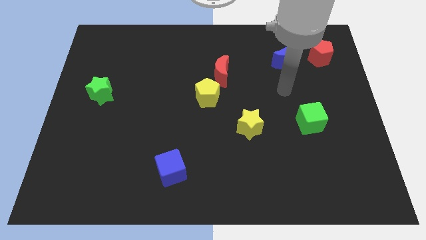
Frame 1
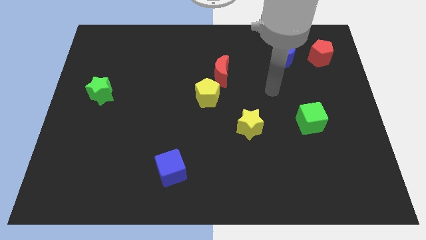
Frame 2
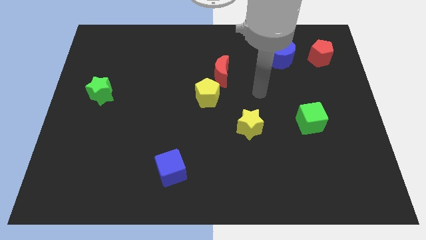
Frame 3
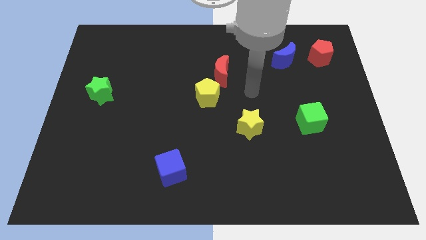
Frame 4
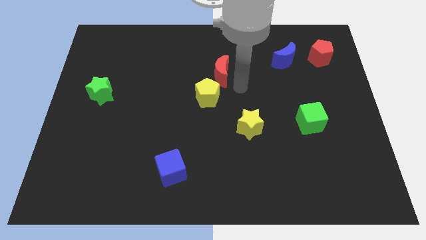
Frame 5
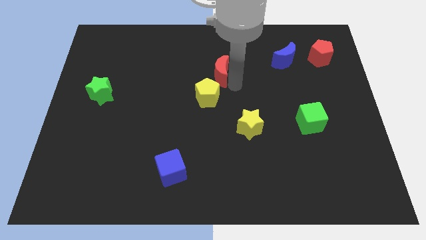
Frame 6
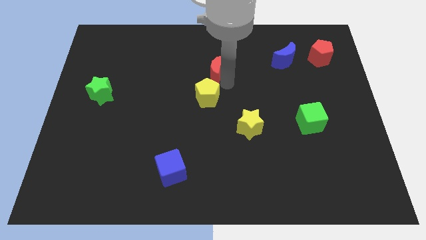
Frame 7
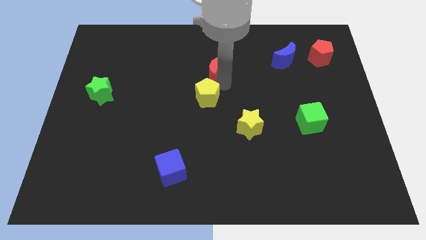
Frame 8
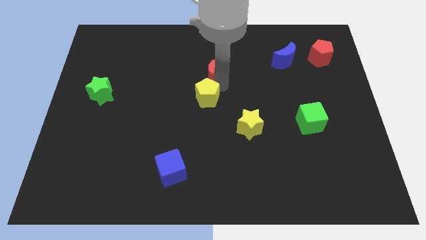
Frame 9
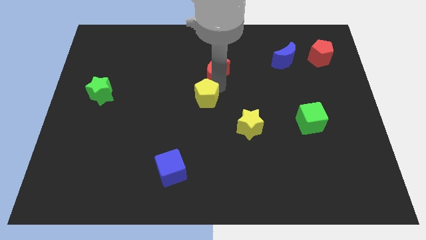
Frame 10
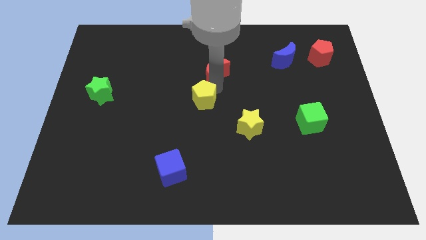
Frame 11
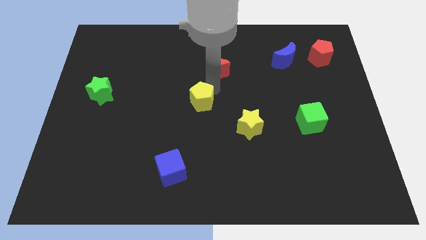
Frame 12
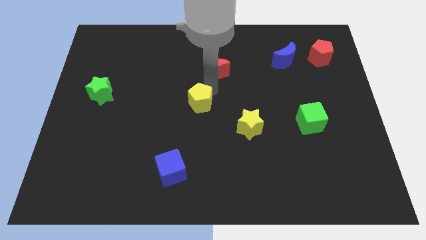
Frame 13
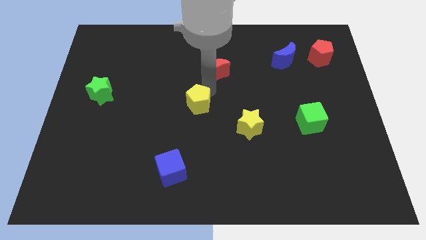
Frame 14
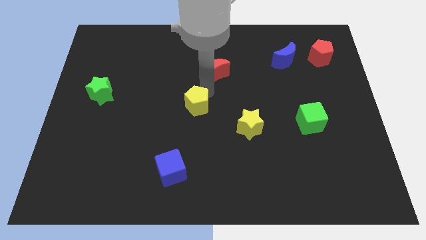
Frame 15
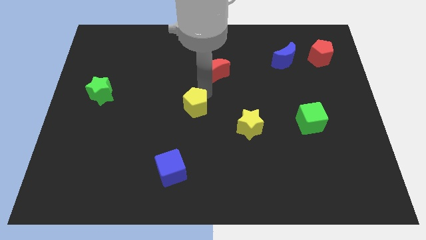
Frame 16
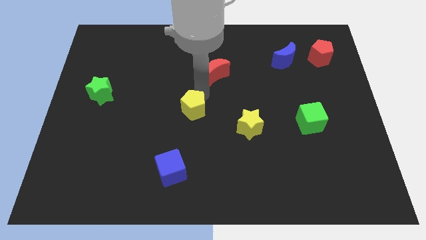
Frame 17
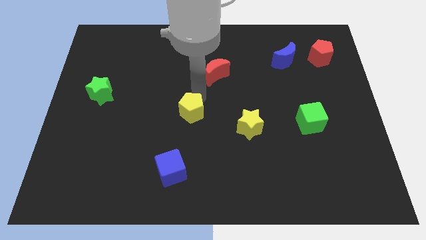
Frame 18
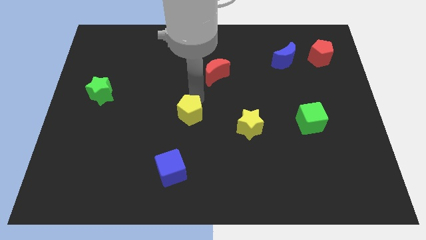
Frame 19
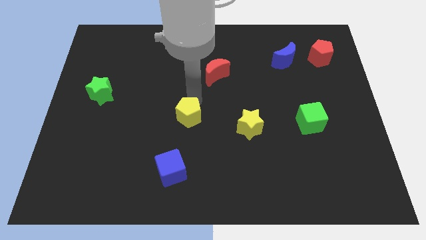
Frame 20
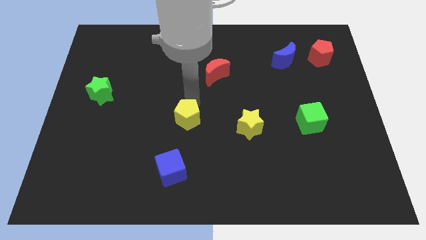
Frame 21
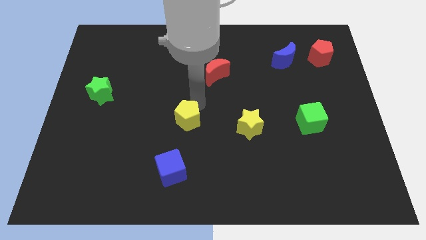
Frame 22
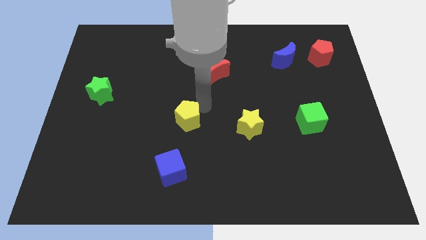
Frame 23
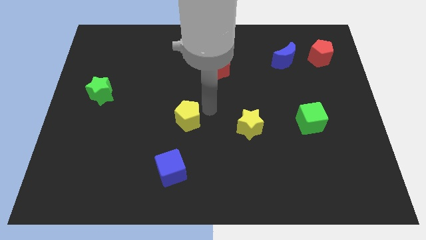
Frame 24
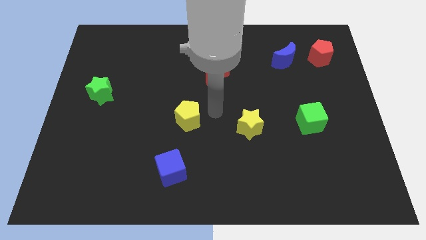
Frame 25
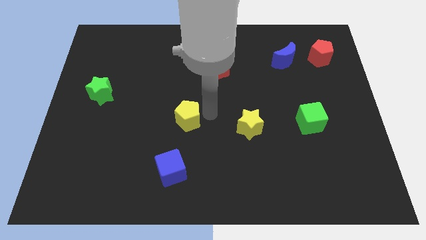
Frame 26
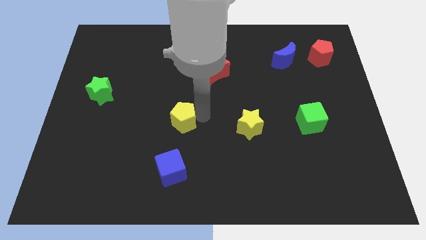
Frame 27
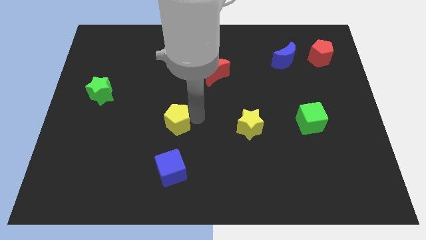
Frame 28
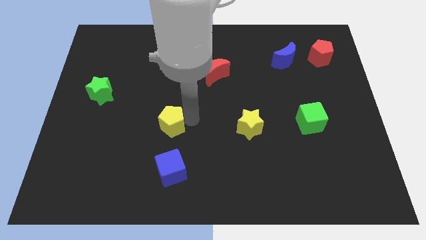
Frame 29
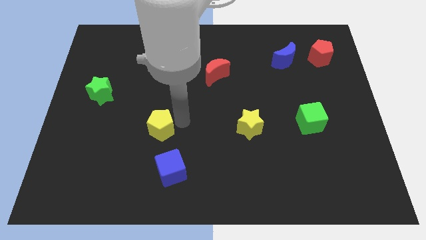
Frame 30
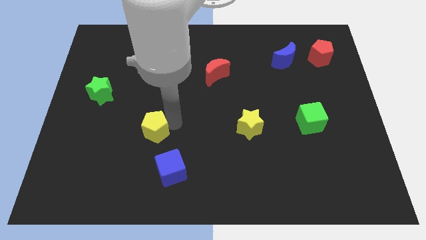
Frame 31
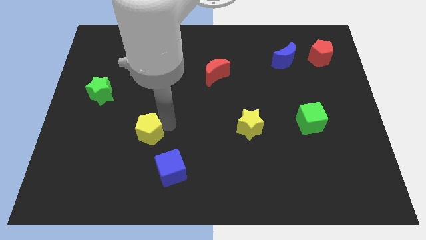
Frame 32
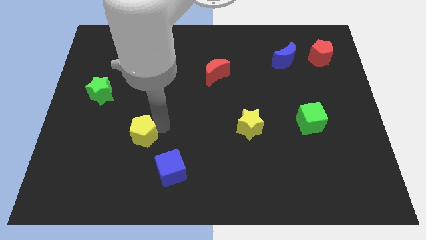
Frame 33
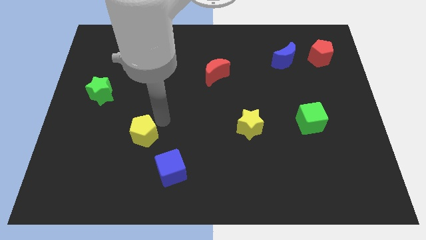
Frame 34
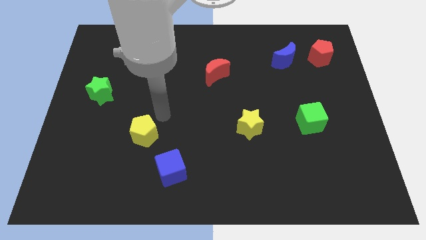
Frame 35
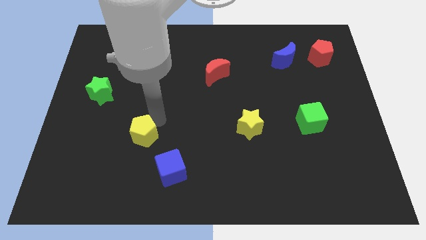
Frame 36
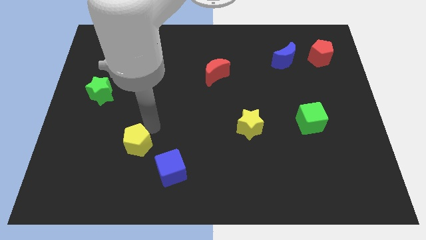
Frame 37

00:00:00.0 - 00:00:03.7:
push the yellow pentagon down and left

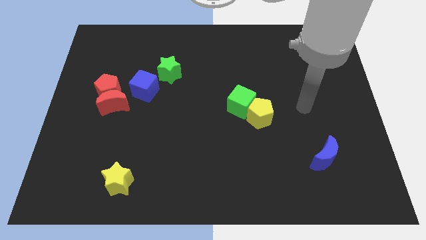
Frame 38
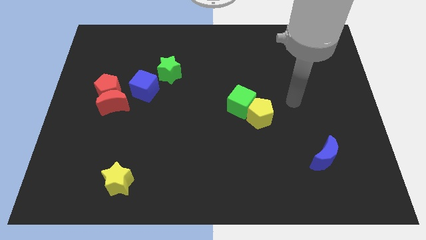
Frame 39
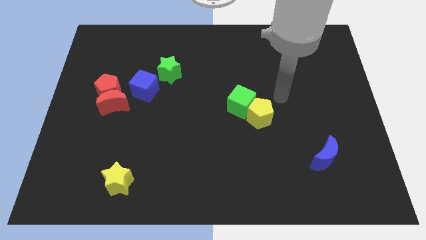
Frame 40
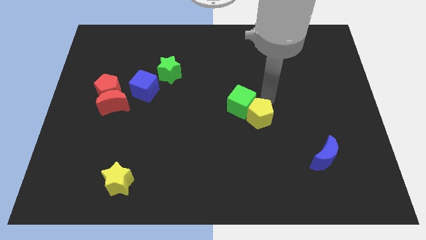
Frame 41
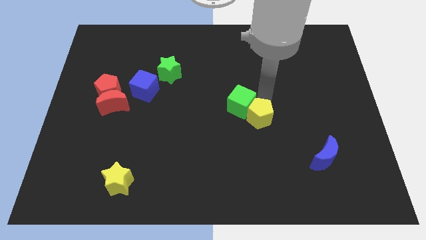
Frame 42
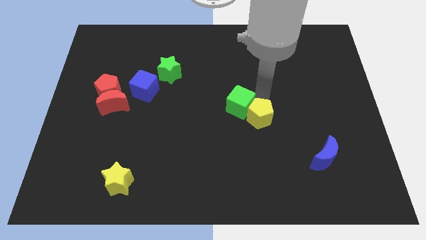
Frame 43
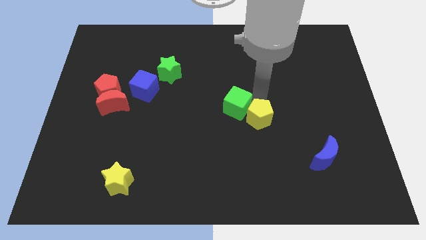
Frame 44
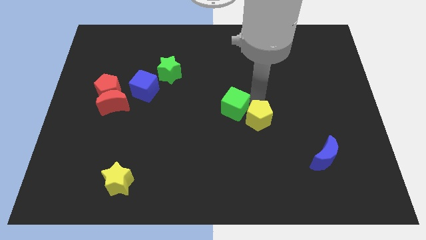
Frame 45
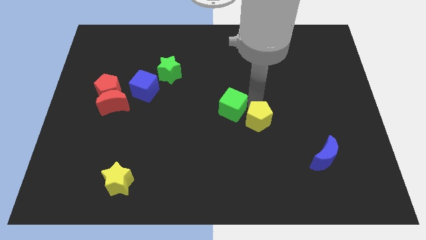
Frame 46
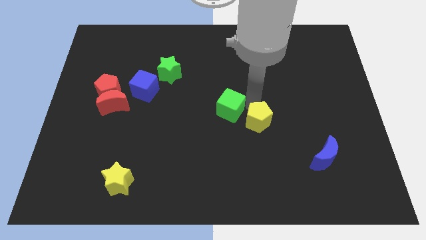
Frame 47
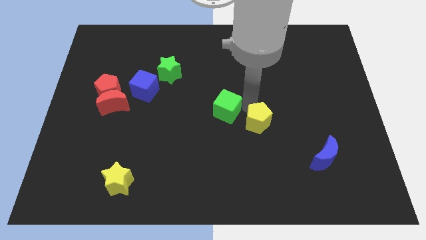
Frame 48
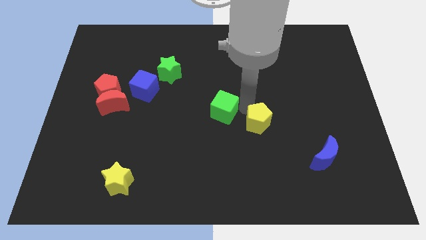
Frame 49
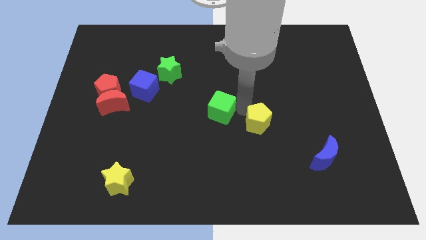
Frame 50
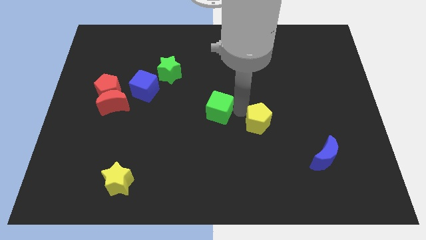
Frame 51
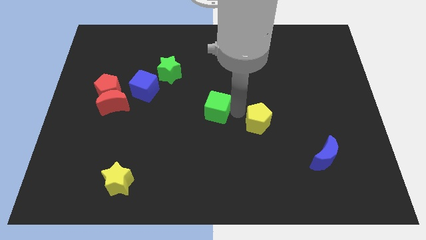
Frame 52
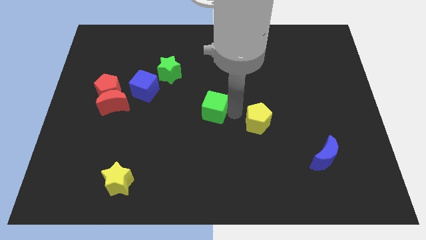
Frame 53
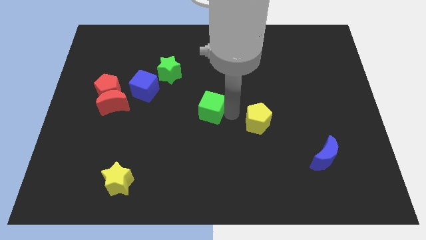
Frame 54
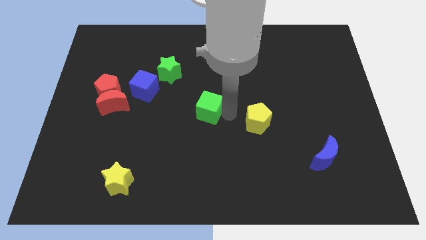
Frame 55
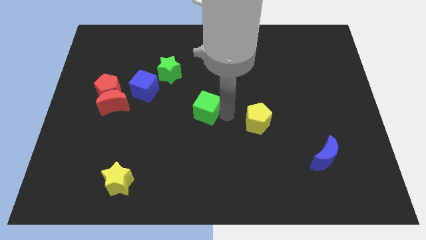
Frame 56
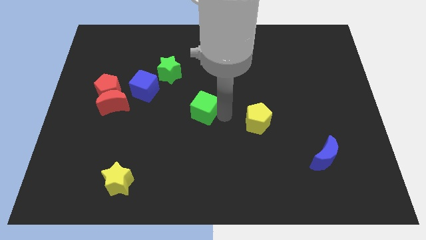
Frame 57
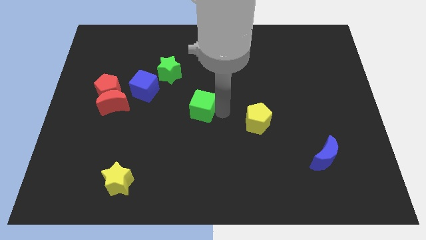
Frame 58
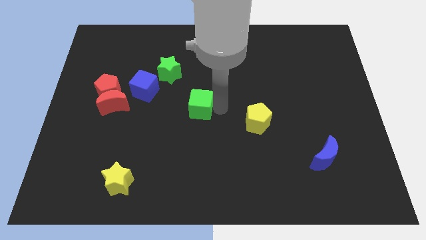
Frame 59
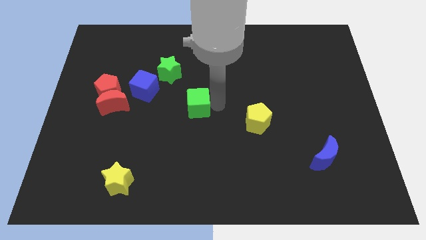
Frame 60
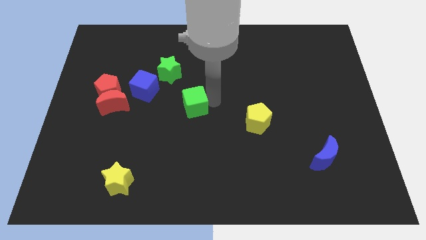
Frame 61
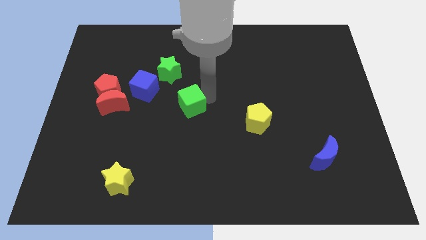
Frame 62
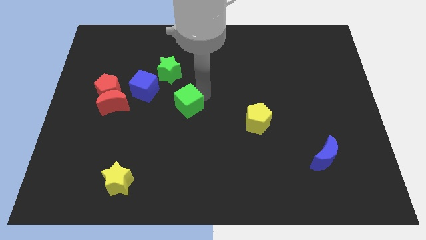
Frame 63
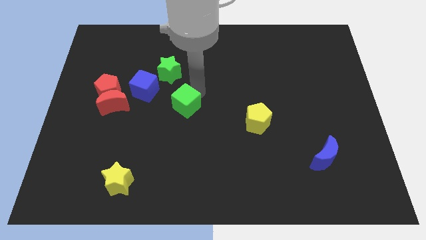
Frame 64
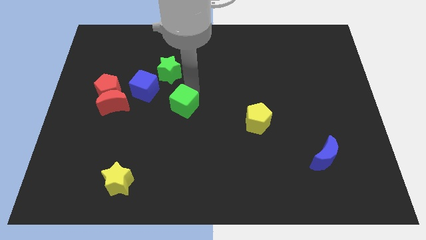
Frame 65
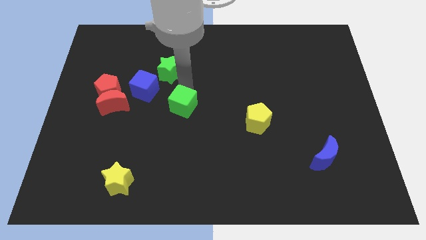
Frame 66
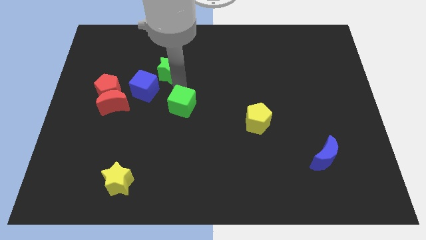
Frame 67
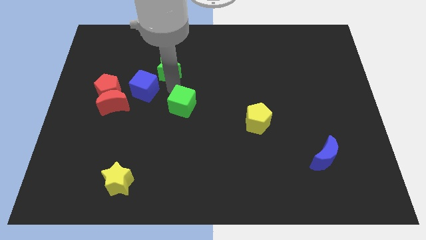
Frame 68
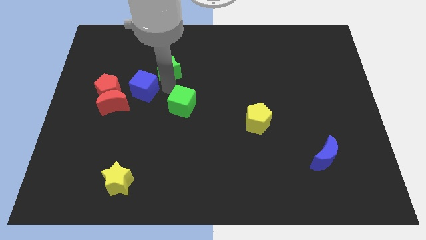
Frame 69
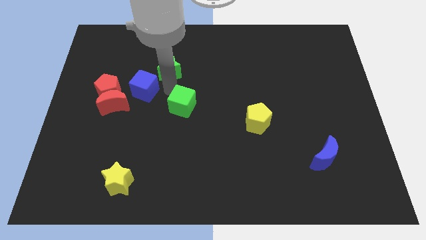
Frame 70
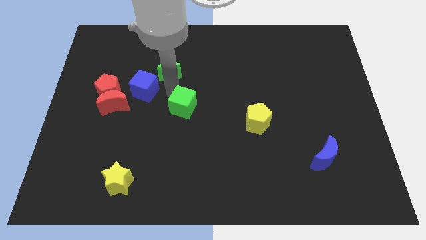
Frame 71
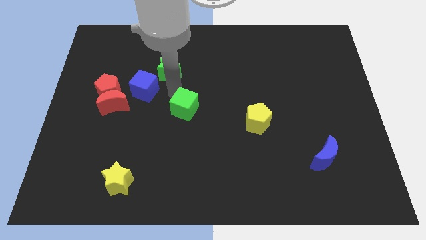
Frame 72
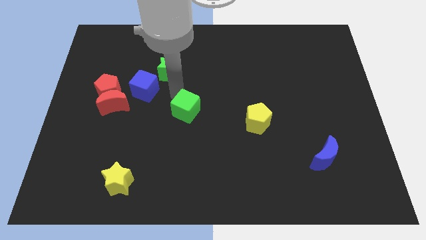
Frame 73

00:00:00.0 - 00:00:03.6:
move the green cube a bit down and then to the left

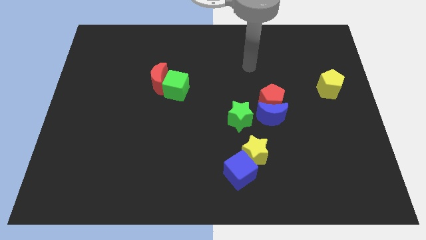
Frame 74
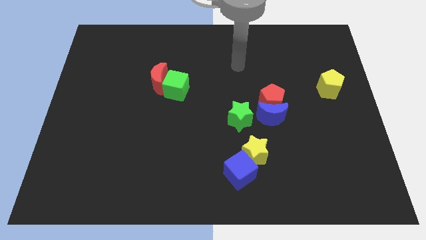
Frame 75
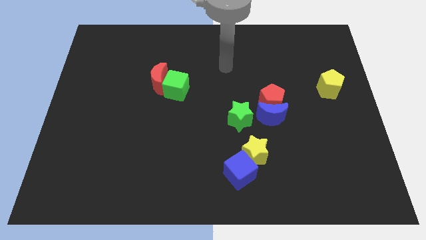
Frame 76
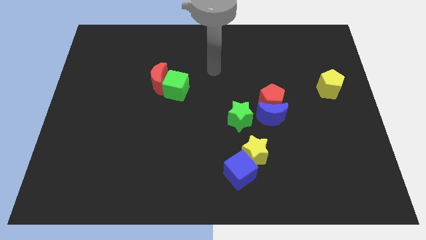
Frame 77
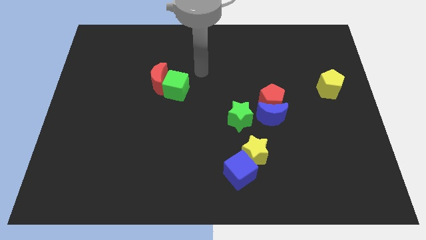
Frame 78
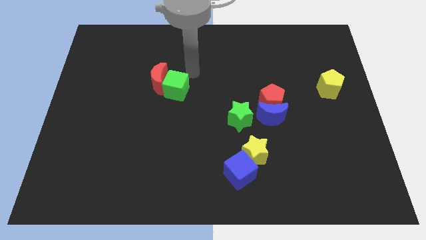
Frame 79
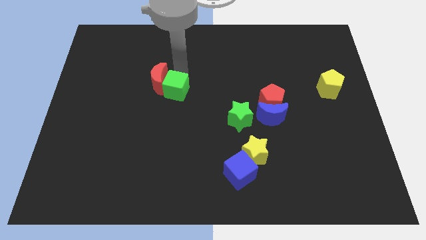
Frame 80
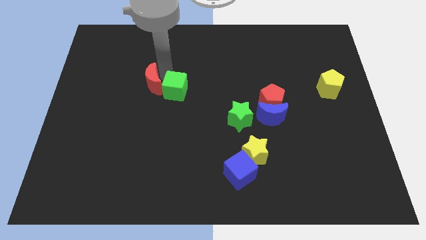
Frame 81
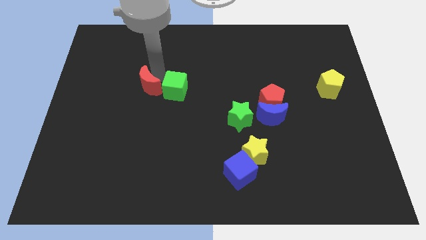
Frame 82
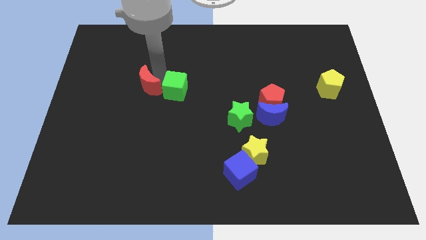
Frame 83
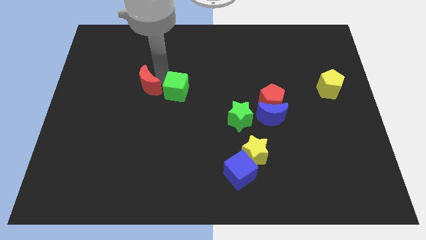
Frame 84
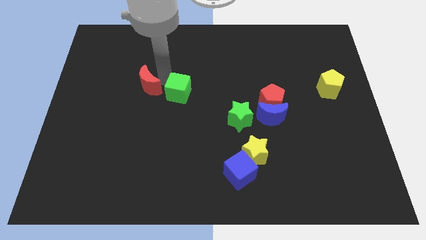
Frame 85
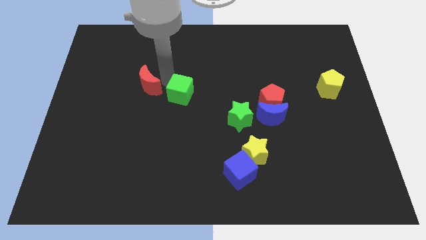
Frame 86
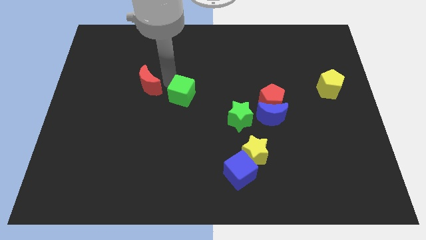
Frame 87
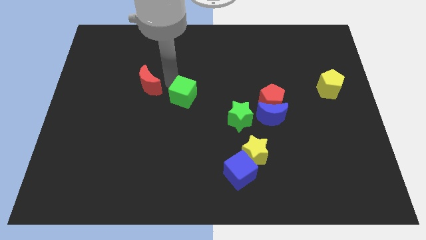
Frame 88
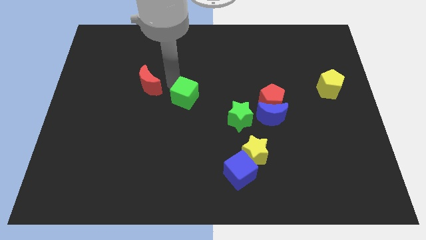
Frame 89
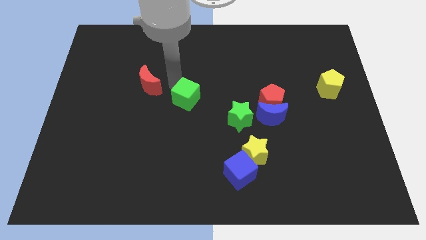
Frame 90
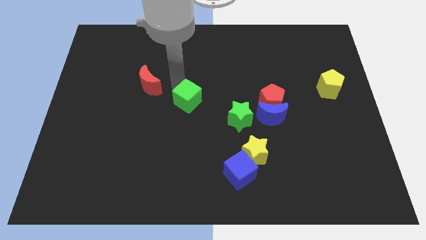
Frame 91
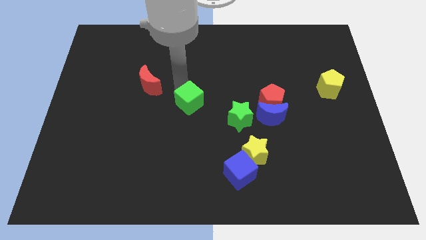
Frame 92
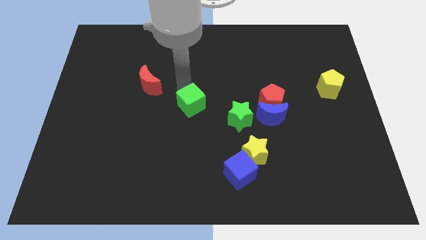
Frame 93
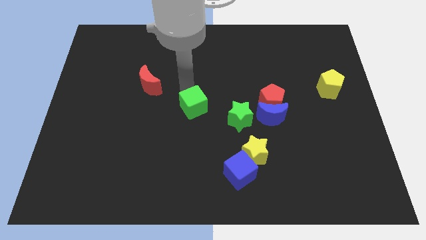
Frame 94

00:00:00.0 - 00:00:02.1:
slide the green cube downwards and to the right diagonally a little bit
